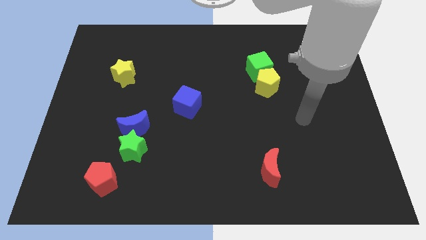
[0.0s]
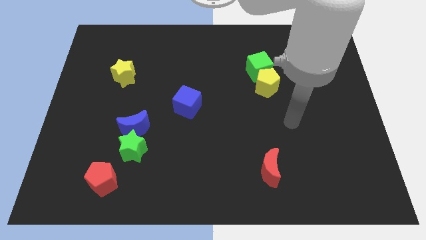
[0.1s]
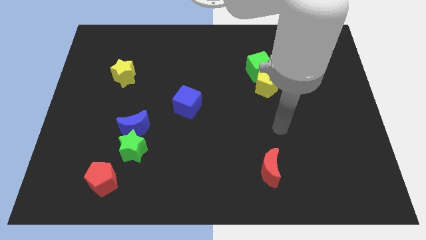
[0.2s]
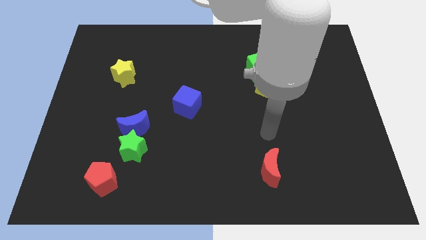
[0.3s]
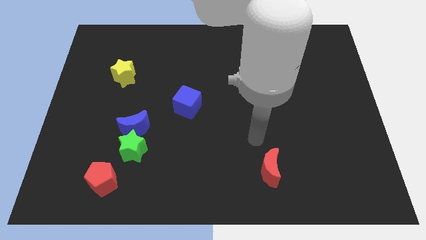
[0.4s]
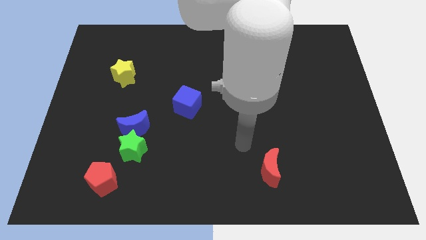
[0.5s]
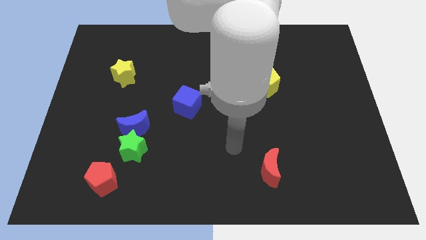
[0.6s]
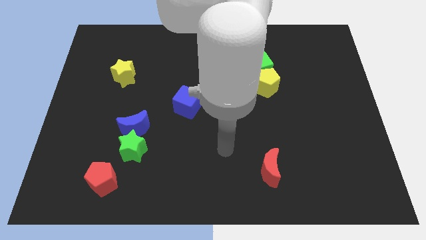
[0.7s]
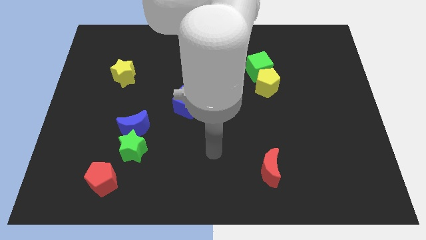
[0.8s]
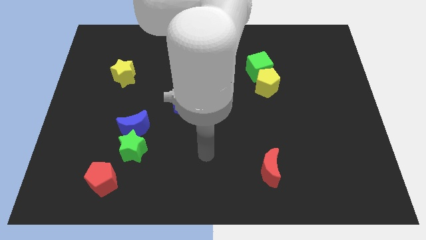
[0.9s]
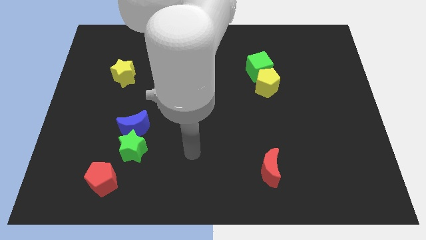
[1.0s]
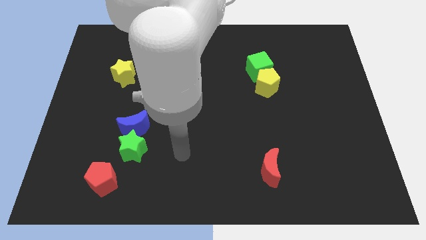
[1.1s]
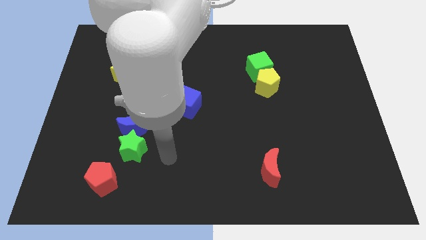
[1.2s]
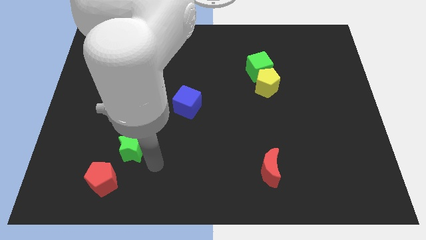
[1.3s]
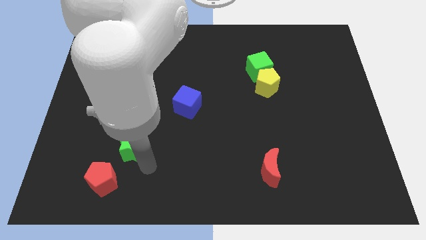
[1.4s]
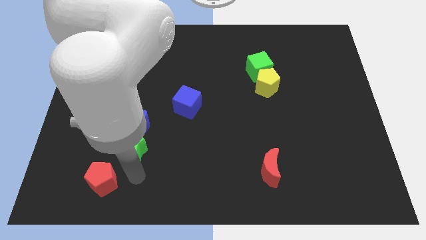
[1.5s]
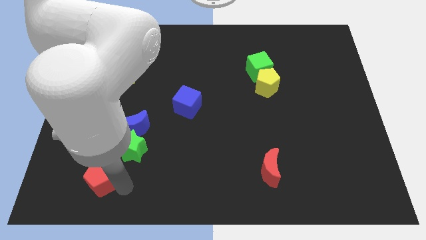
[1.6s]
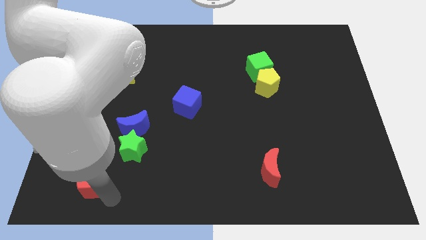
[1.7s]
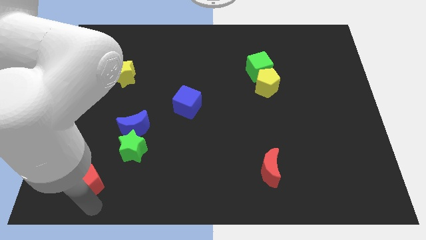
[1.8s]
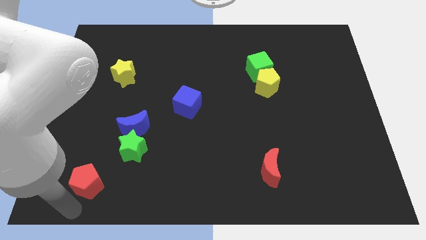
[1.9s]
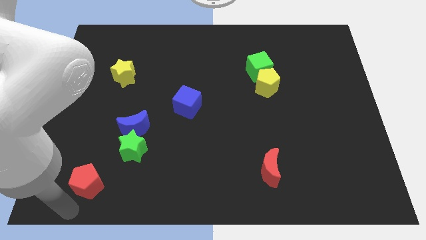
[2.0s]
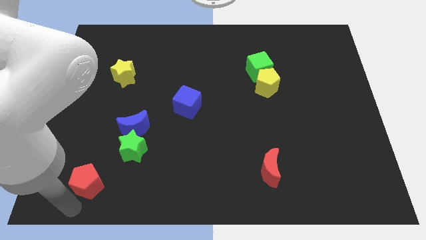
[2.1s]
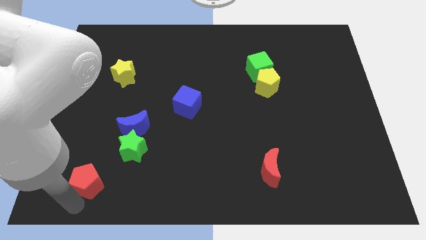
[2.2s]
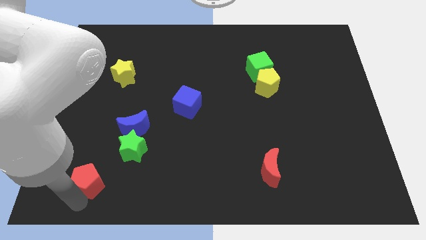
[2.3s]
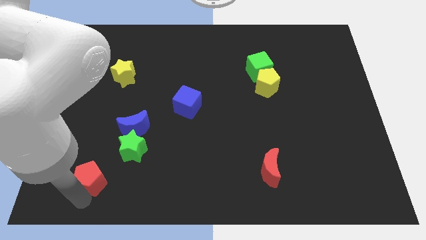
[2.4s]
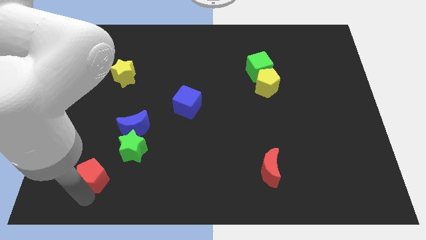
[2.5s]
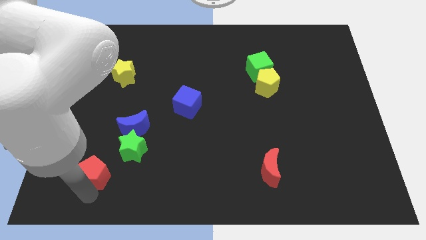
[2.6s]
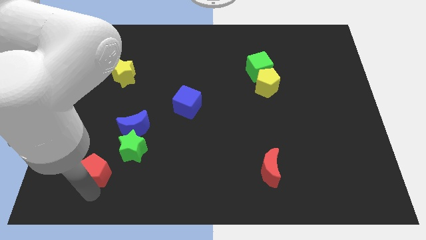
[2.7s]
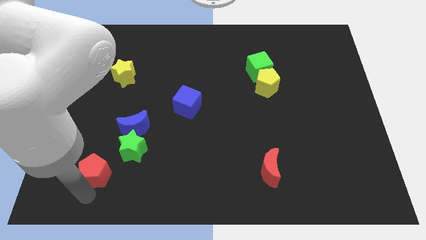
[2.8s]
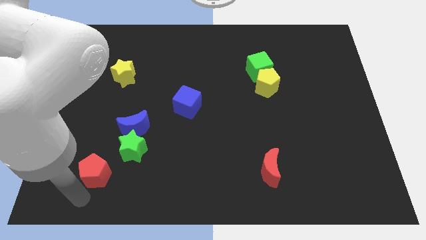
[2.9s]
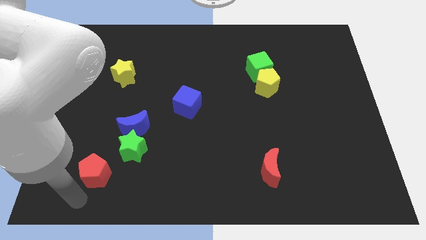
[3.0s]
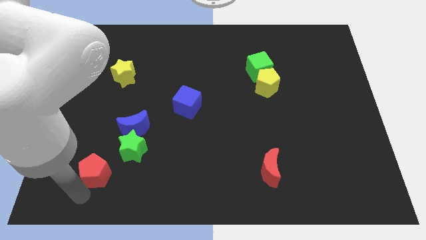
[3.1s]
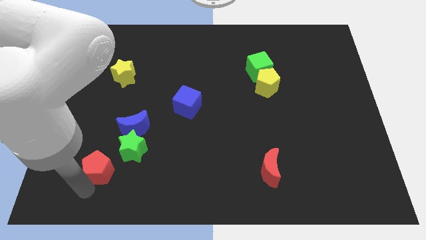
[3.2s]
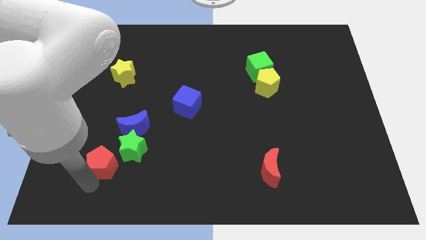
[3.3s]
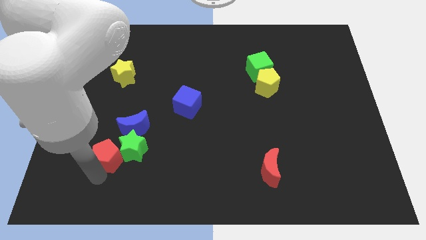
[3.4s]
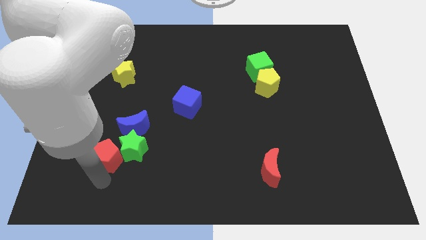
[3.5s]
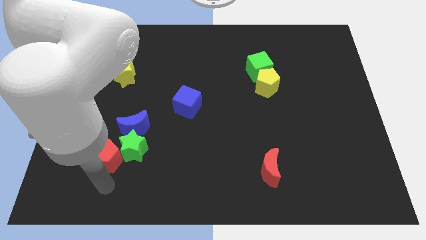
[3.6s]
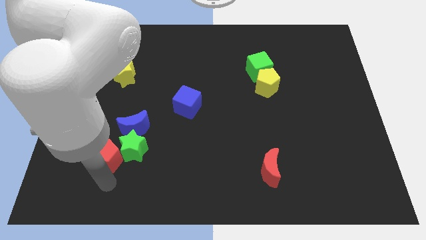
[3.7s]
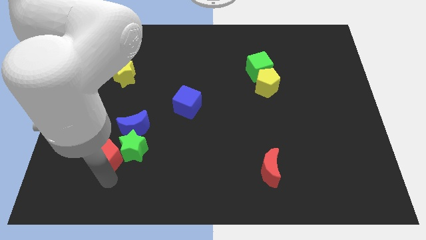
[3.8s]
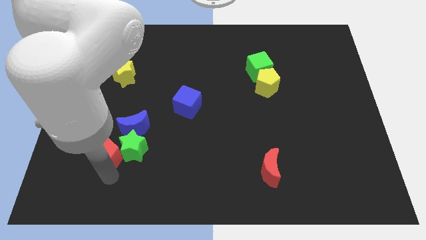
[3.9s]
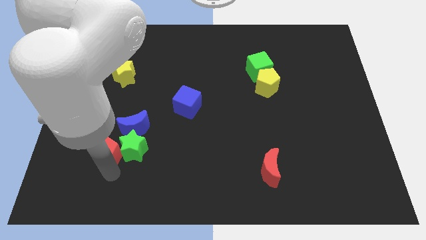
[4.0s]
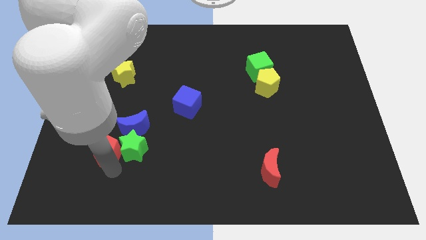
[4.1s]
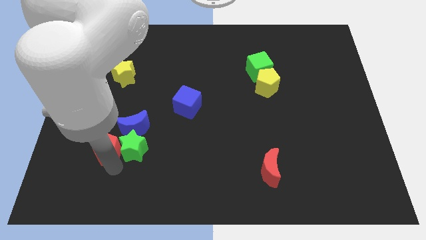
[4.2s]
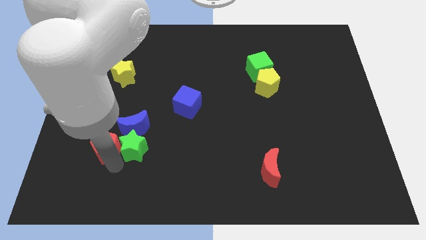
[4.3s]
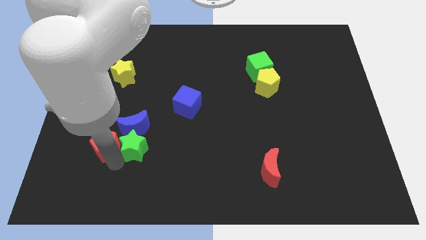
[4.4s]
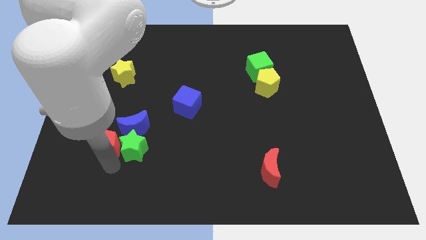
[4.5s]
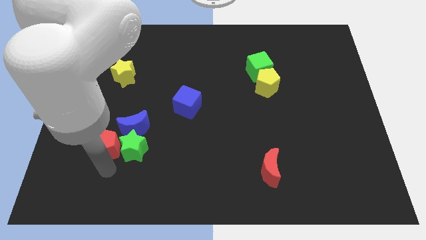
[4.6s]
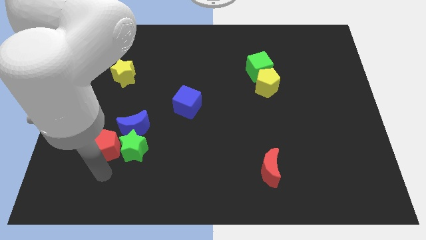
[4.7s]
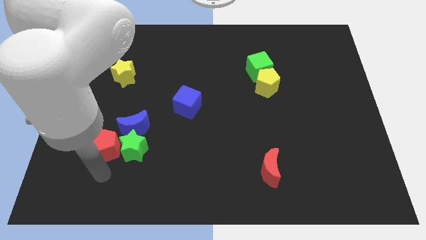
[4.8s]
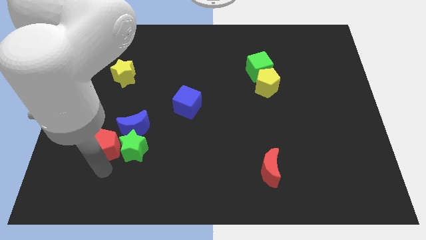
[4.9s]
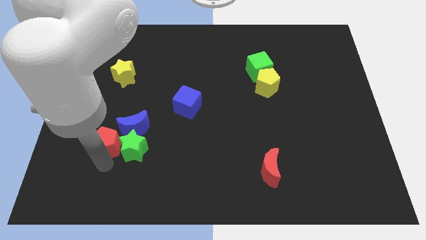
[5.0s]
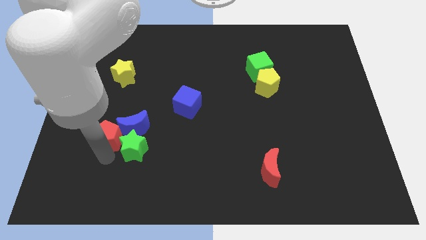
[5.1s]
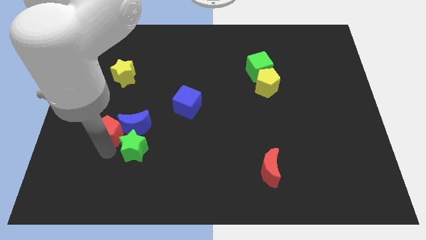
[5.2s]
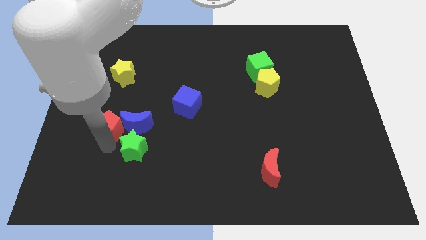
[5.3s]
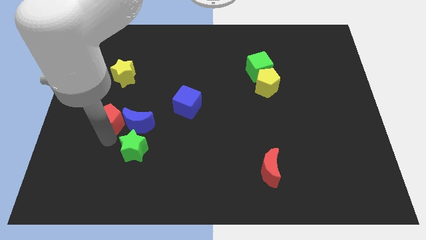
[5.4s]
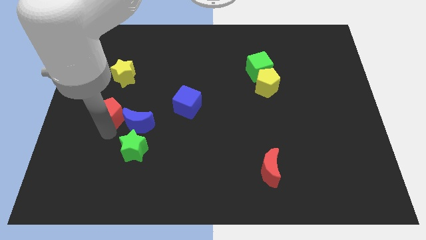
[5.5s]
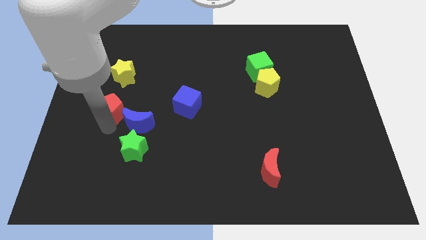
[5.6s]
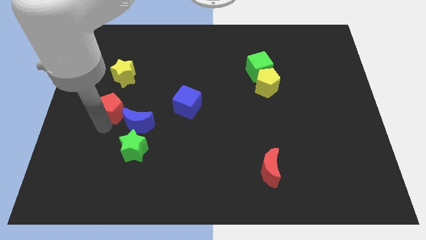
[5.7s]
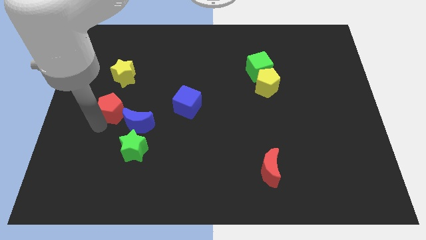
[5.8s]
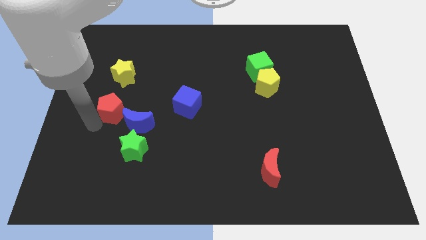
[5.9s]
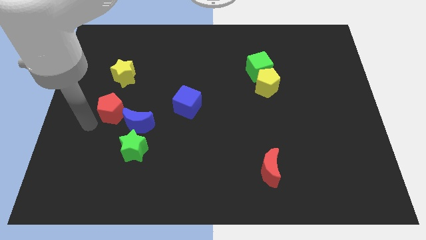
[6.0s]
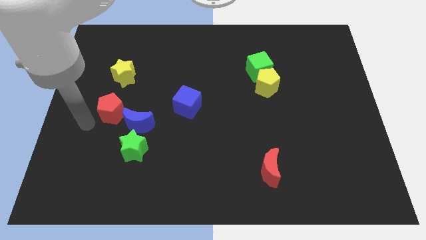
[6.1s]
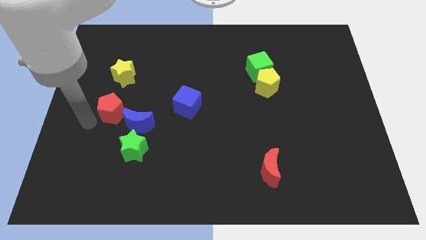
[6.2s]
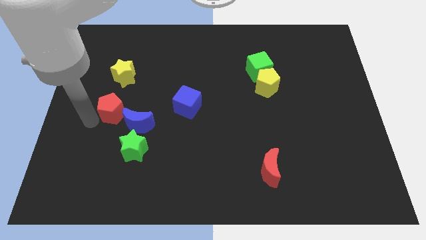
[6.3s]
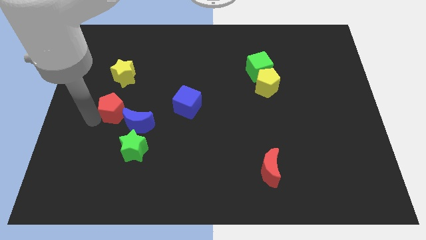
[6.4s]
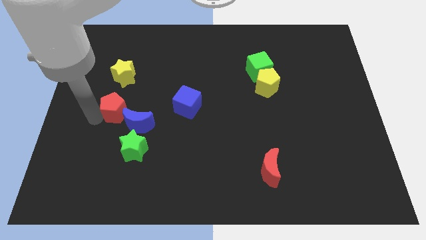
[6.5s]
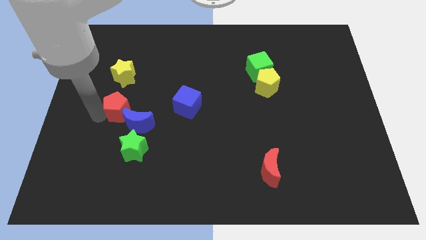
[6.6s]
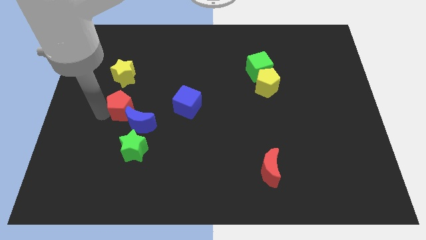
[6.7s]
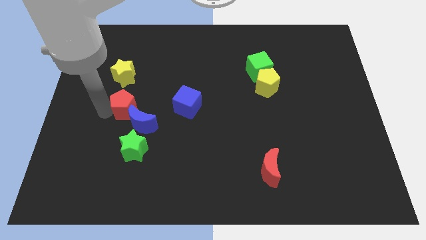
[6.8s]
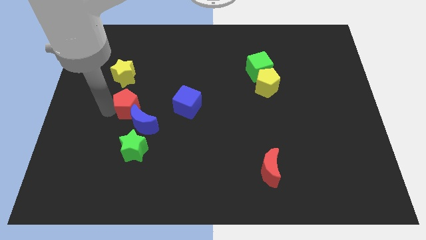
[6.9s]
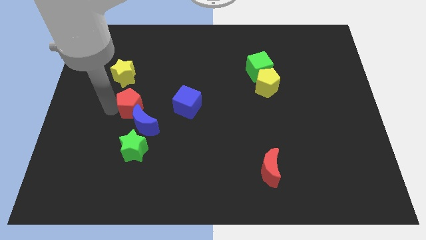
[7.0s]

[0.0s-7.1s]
put the red pentagon diagonally down and to the right of the yellow star
